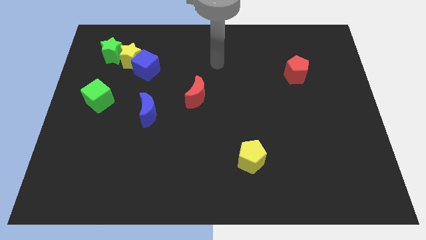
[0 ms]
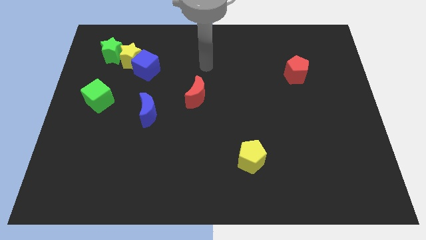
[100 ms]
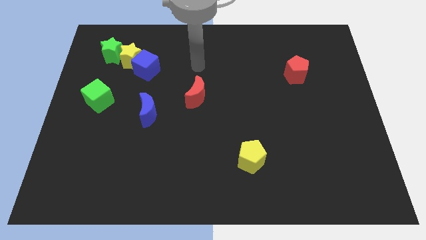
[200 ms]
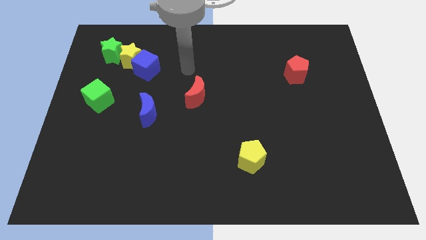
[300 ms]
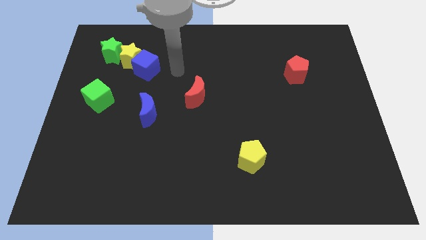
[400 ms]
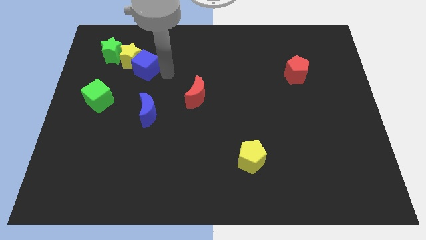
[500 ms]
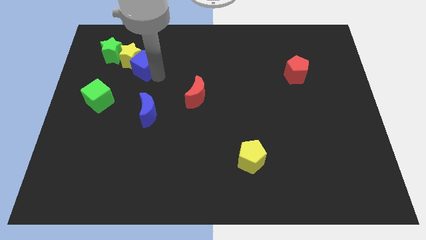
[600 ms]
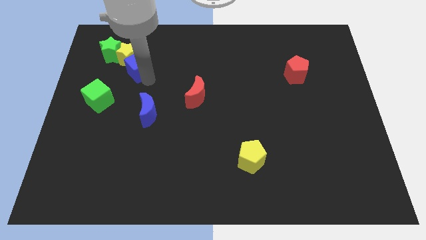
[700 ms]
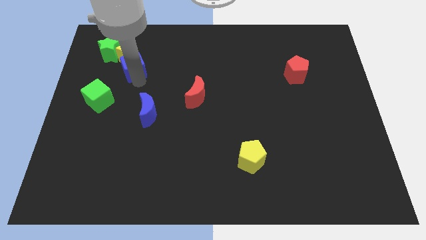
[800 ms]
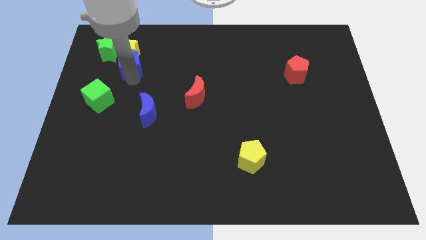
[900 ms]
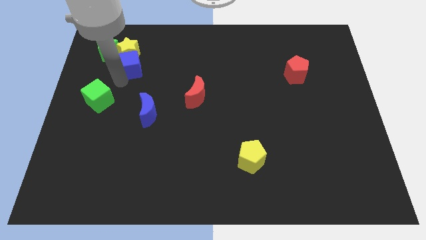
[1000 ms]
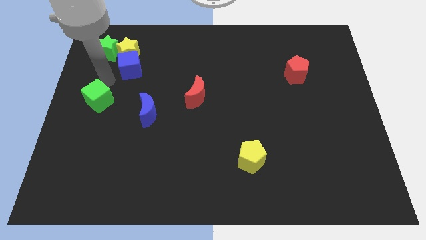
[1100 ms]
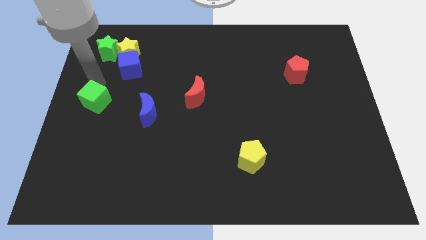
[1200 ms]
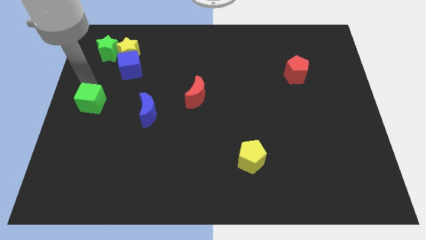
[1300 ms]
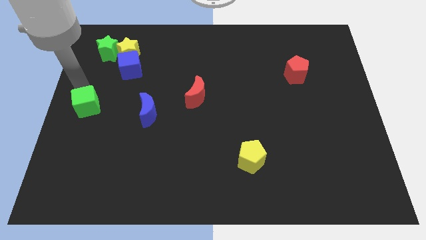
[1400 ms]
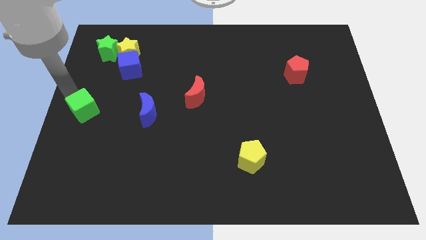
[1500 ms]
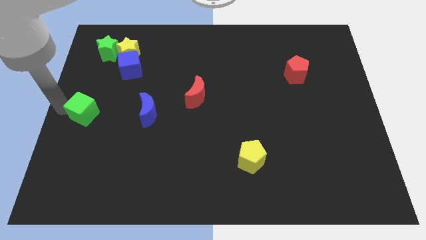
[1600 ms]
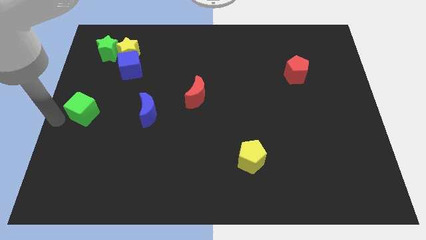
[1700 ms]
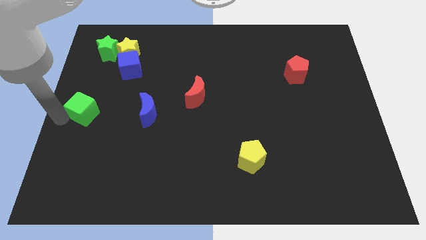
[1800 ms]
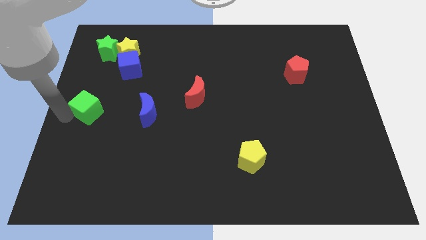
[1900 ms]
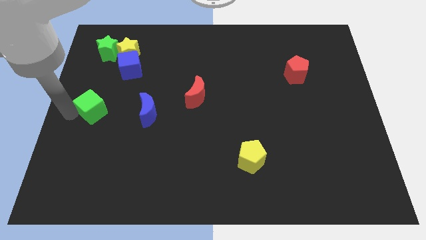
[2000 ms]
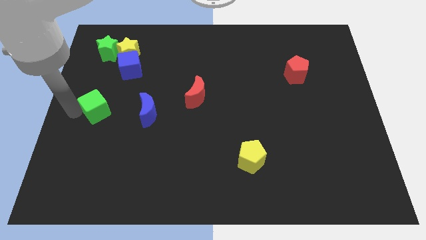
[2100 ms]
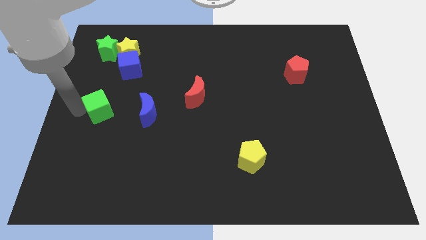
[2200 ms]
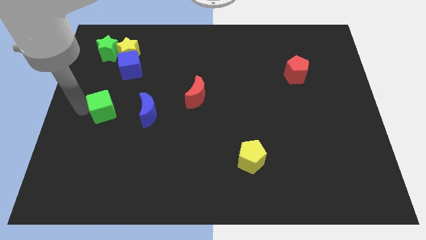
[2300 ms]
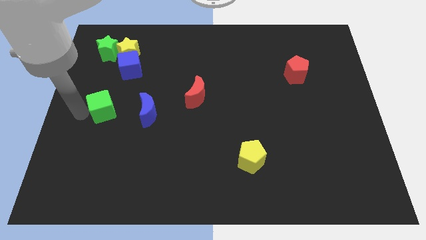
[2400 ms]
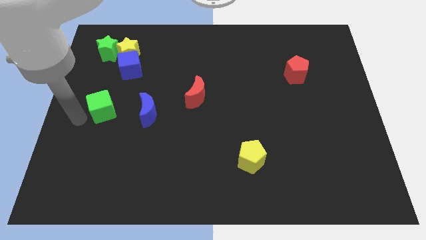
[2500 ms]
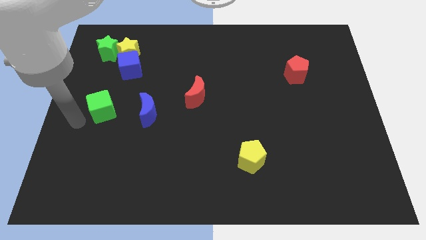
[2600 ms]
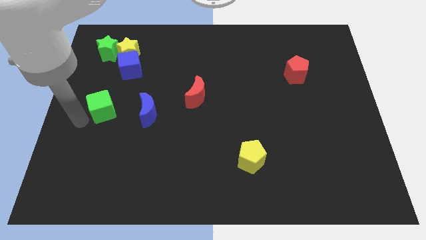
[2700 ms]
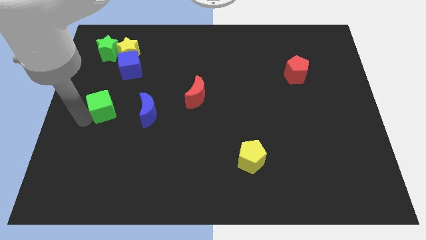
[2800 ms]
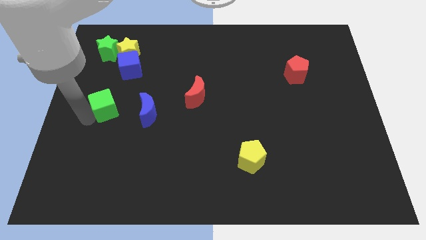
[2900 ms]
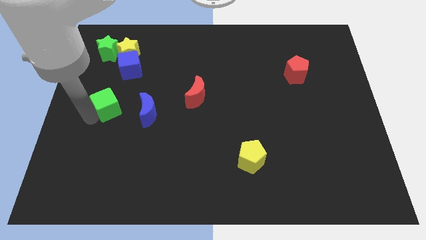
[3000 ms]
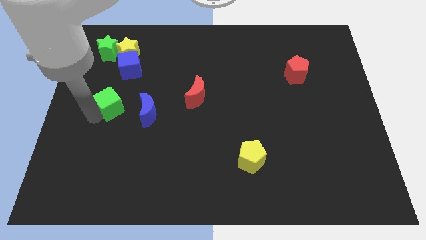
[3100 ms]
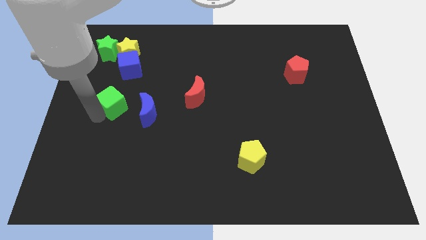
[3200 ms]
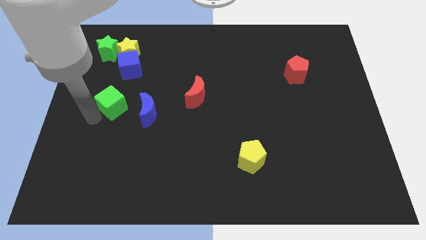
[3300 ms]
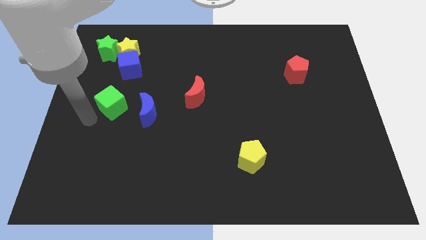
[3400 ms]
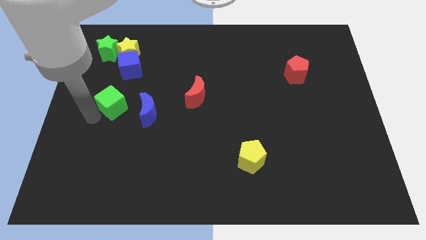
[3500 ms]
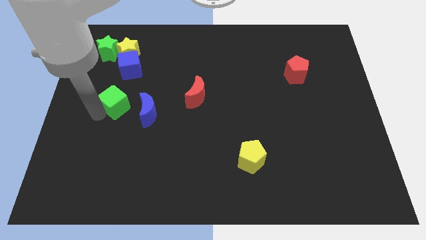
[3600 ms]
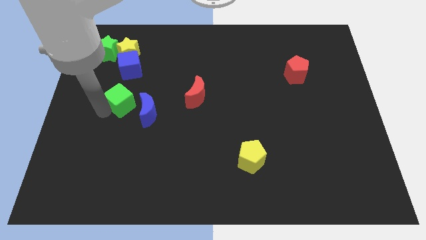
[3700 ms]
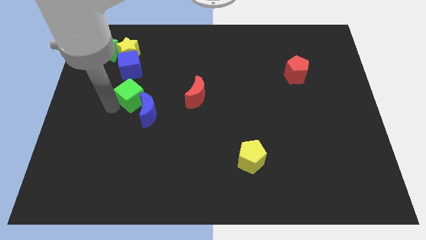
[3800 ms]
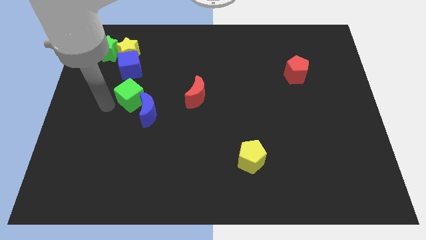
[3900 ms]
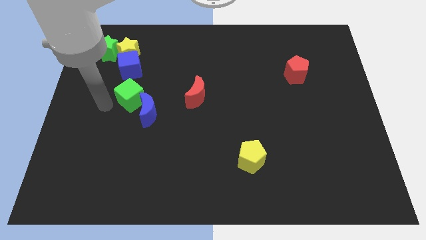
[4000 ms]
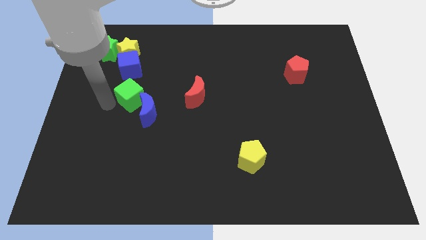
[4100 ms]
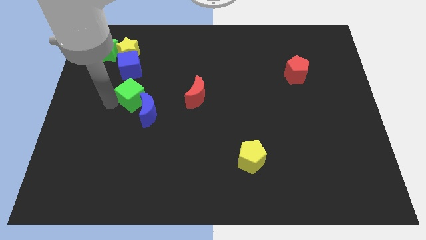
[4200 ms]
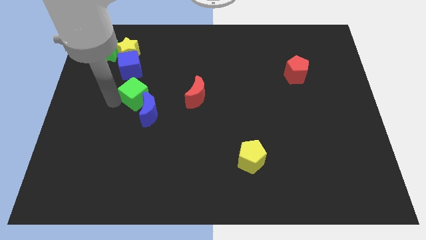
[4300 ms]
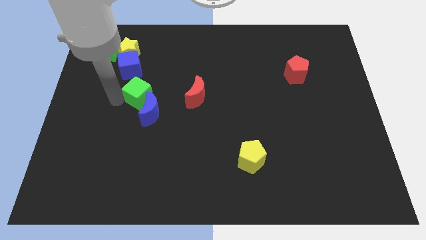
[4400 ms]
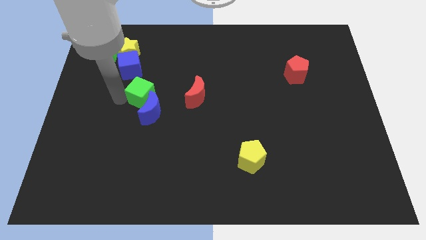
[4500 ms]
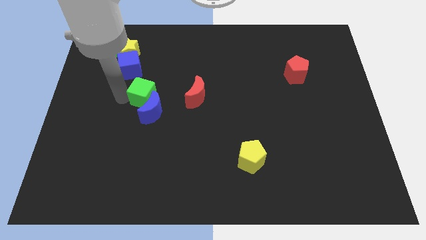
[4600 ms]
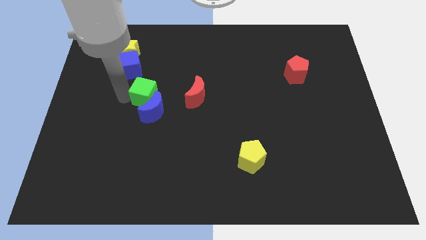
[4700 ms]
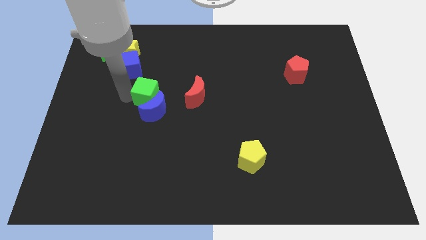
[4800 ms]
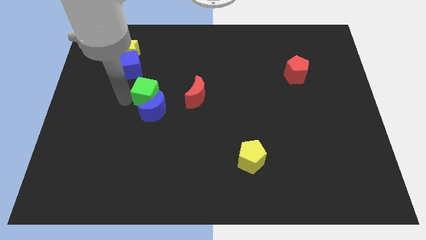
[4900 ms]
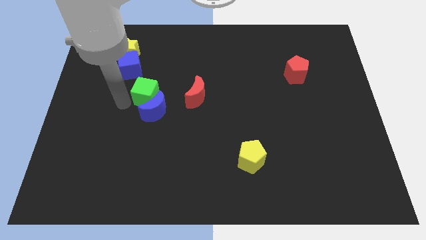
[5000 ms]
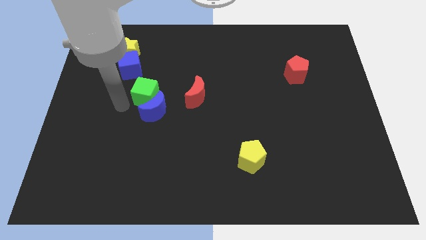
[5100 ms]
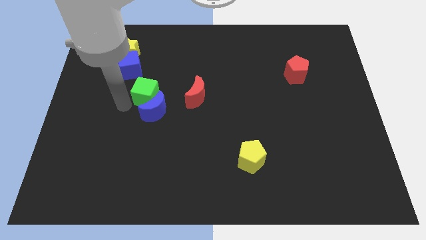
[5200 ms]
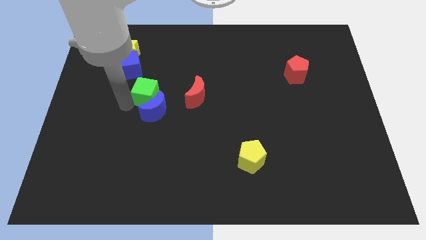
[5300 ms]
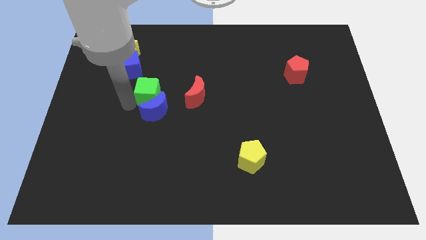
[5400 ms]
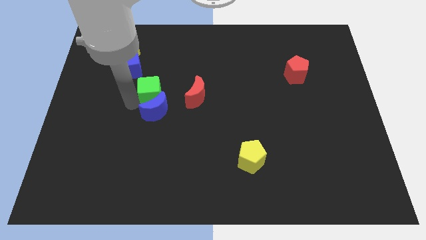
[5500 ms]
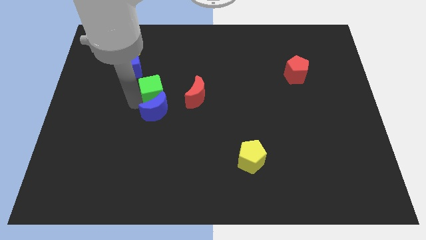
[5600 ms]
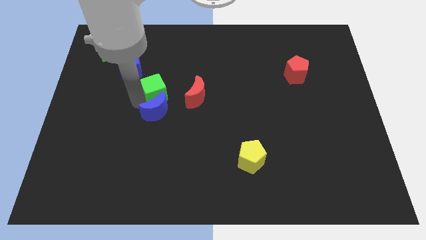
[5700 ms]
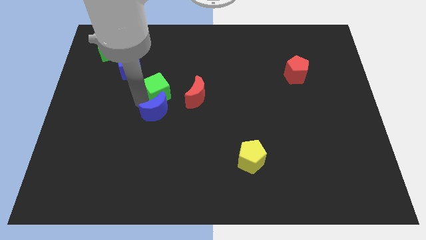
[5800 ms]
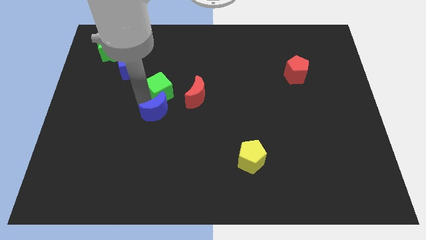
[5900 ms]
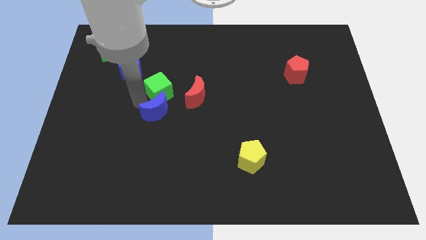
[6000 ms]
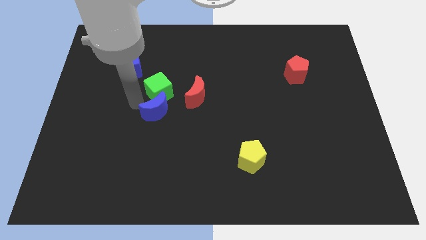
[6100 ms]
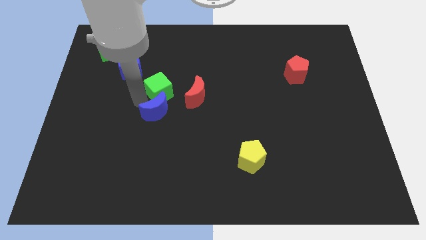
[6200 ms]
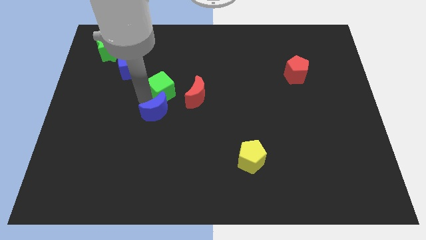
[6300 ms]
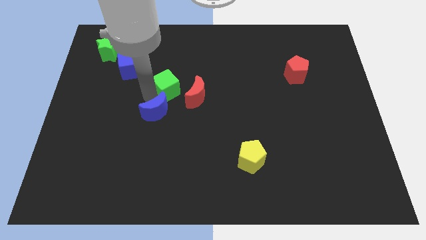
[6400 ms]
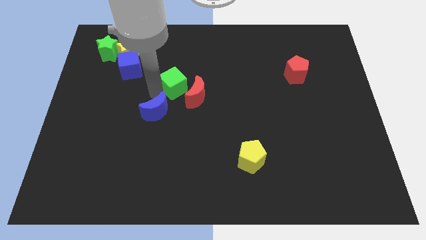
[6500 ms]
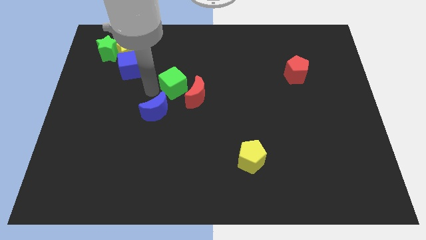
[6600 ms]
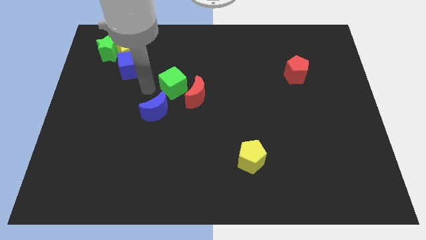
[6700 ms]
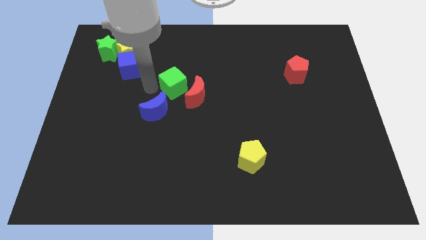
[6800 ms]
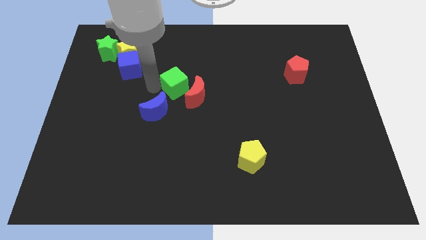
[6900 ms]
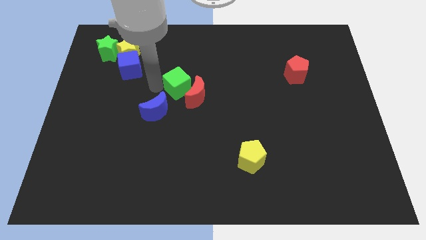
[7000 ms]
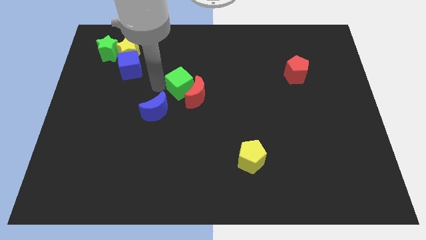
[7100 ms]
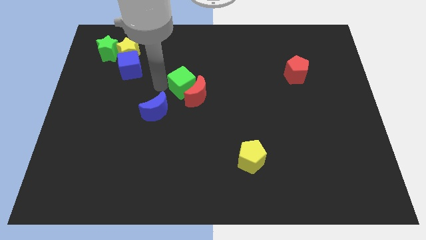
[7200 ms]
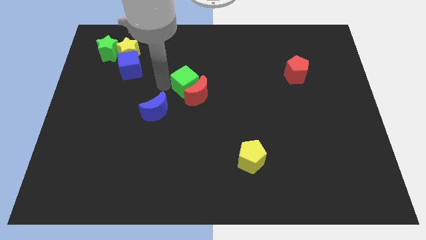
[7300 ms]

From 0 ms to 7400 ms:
move the green cube right
